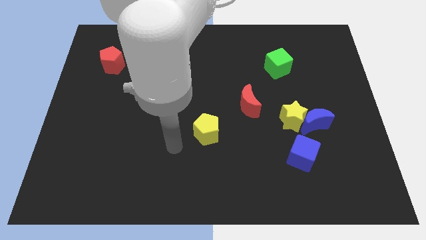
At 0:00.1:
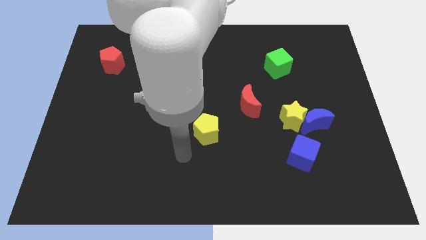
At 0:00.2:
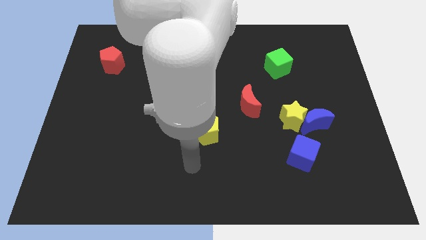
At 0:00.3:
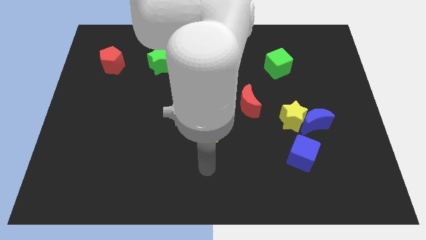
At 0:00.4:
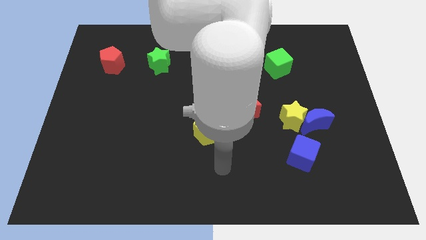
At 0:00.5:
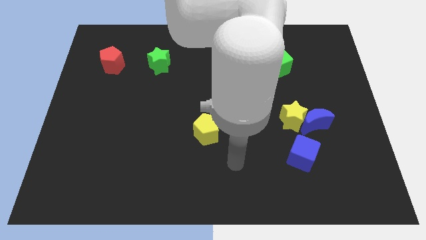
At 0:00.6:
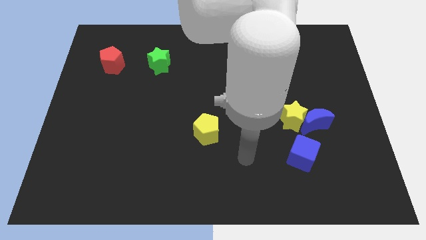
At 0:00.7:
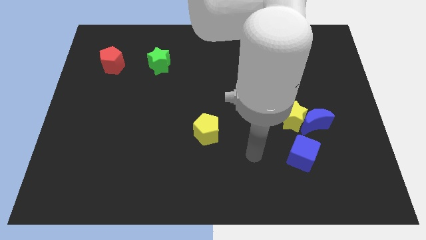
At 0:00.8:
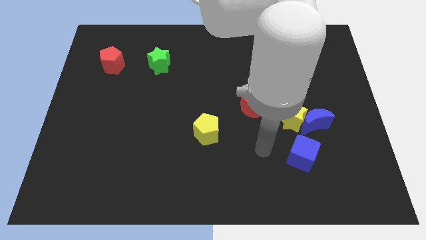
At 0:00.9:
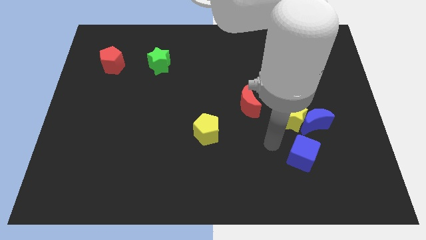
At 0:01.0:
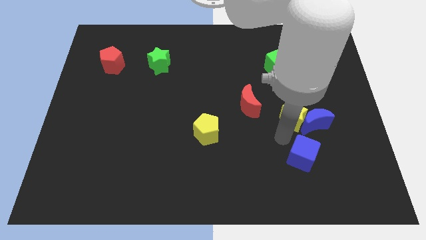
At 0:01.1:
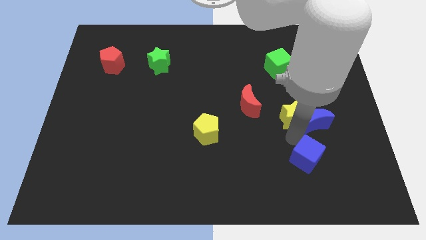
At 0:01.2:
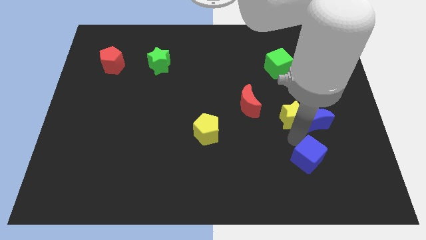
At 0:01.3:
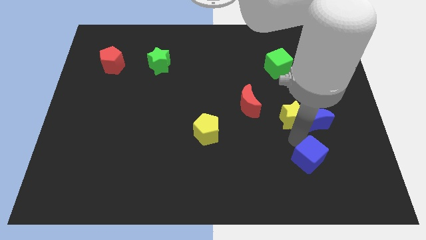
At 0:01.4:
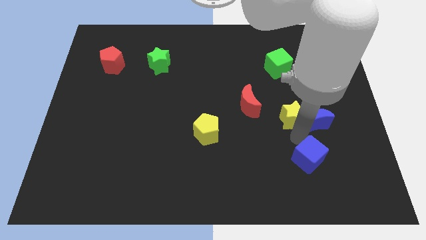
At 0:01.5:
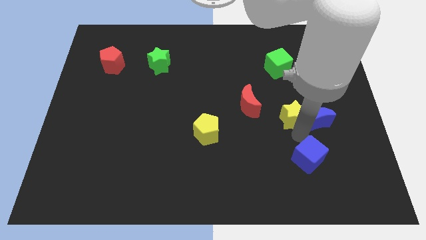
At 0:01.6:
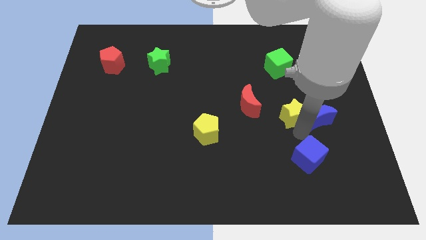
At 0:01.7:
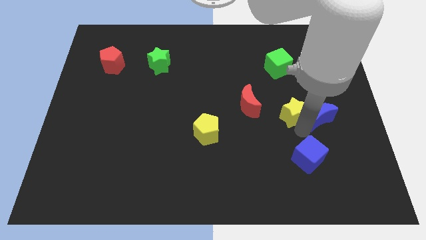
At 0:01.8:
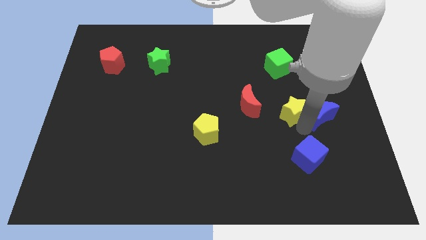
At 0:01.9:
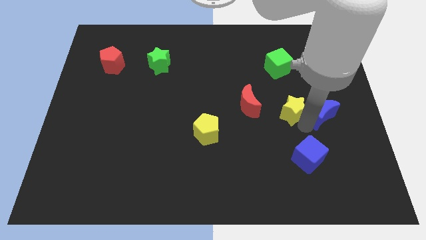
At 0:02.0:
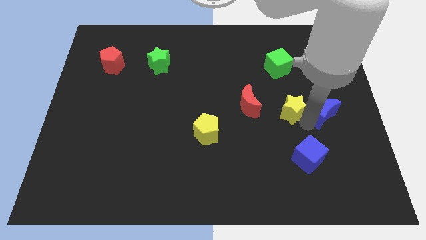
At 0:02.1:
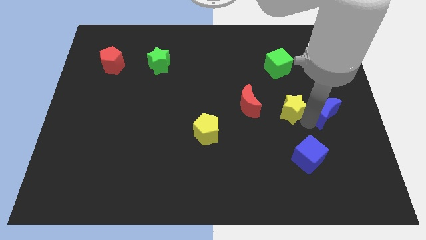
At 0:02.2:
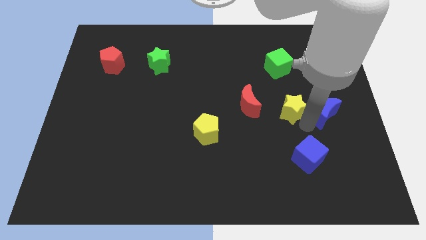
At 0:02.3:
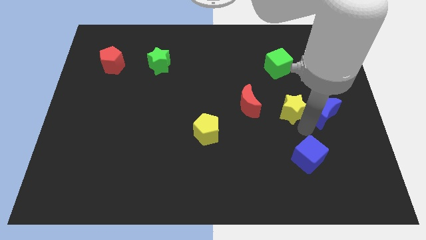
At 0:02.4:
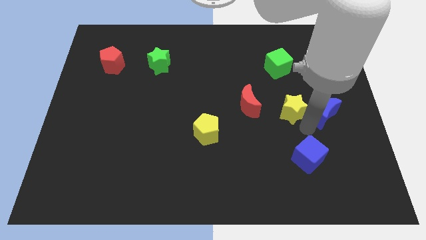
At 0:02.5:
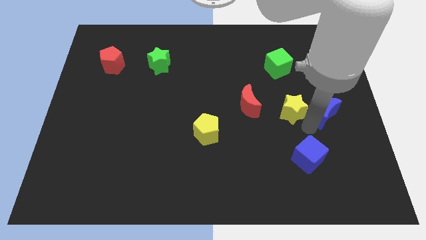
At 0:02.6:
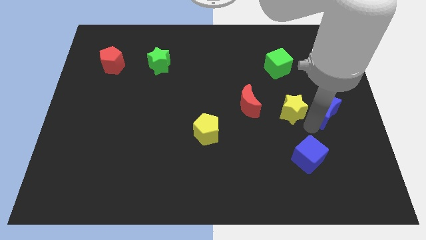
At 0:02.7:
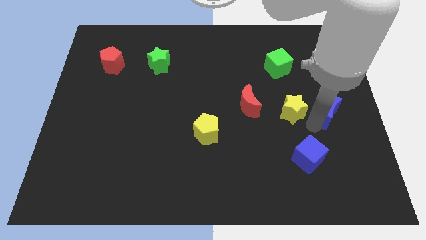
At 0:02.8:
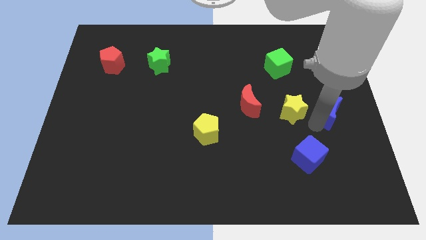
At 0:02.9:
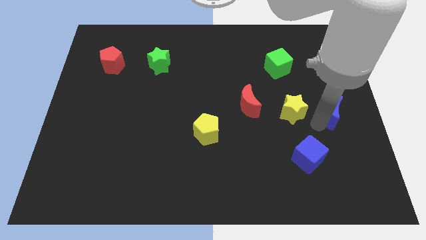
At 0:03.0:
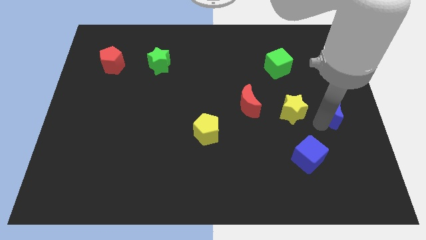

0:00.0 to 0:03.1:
pull the blue moon apart from the yellow star and blue cube

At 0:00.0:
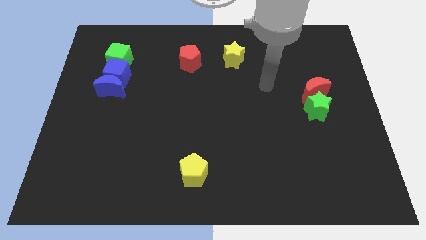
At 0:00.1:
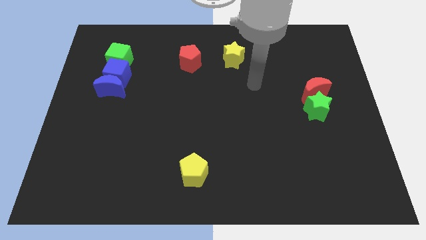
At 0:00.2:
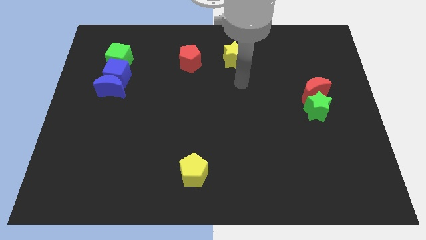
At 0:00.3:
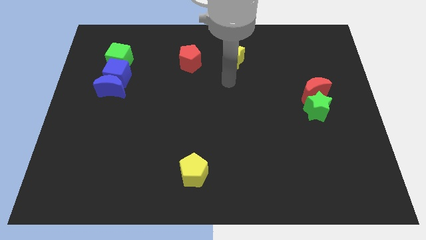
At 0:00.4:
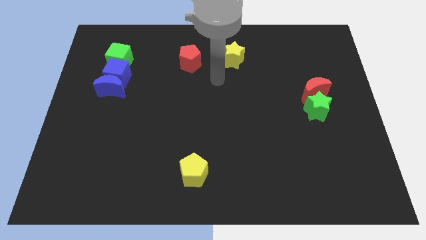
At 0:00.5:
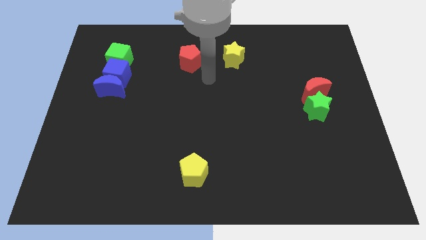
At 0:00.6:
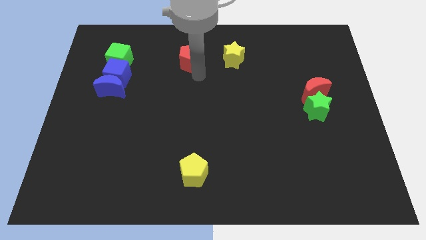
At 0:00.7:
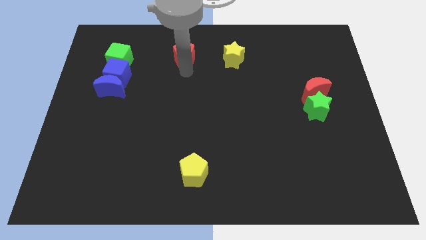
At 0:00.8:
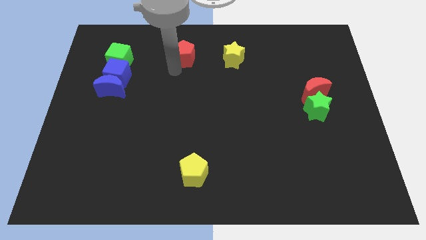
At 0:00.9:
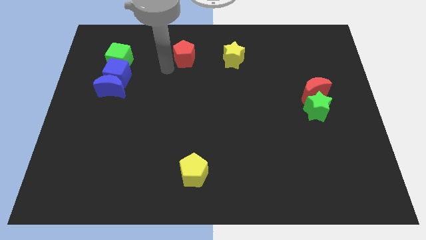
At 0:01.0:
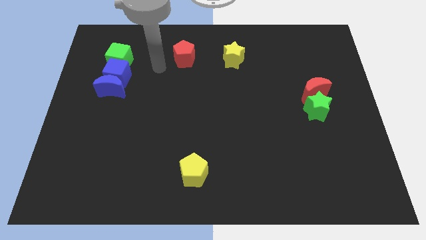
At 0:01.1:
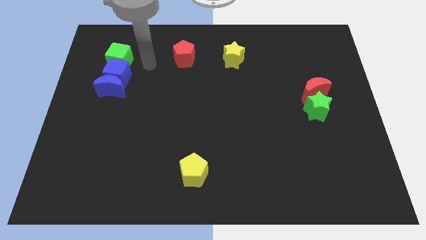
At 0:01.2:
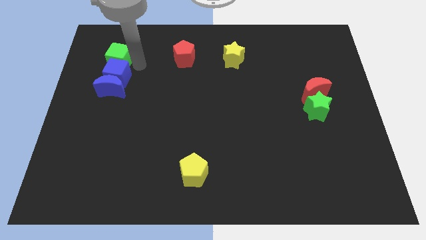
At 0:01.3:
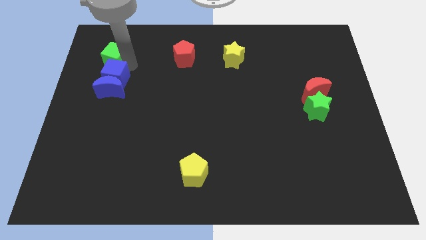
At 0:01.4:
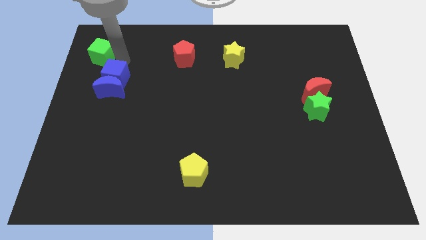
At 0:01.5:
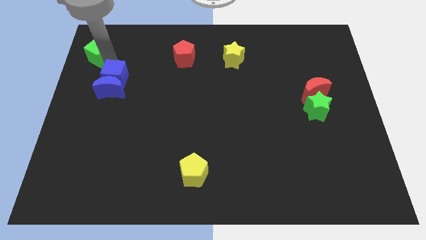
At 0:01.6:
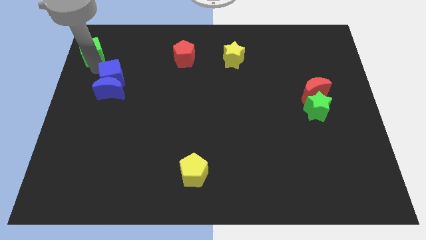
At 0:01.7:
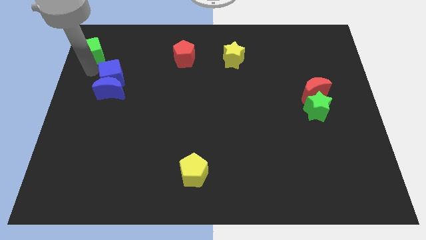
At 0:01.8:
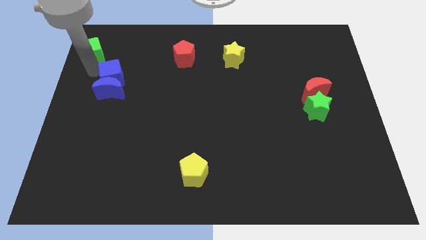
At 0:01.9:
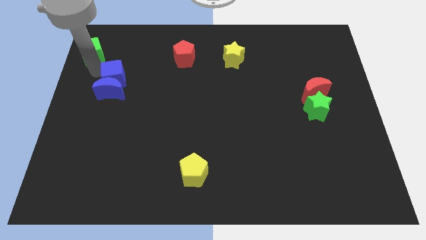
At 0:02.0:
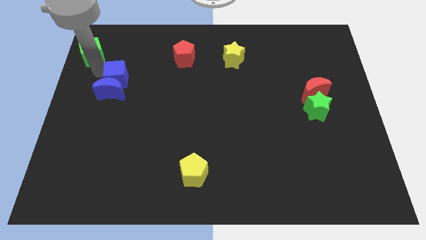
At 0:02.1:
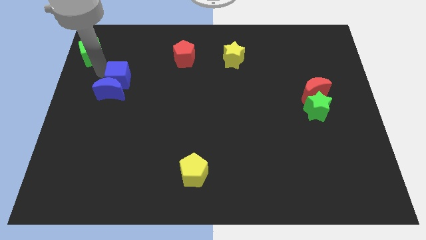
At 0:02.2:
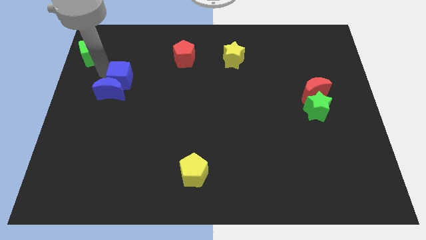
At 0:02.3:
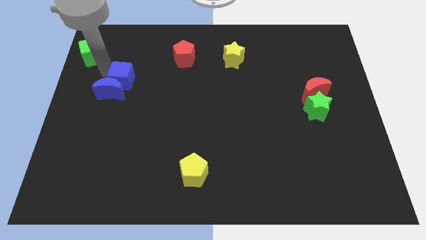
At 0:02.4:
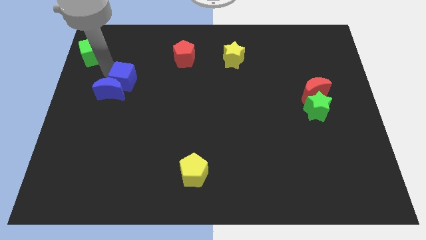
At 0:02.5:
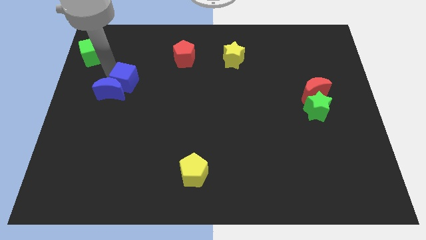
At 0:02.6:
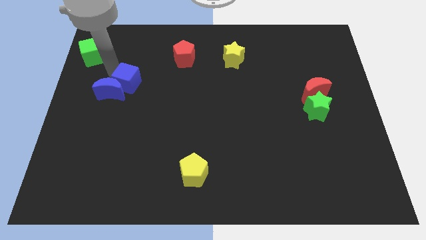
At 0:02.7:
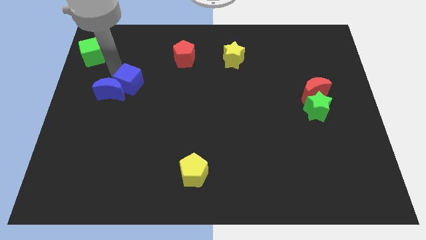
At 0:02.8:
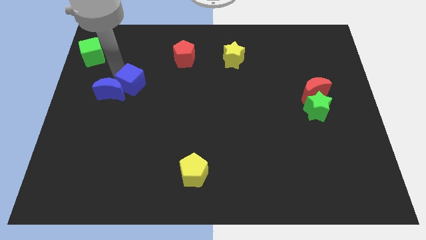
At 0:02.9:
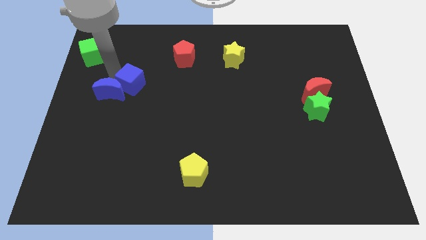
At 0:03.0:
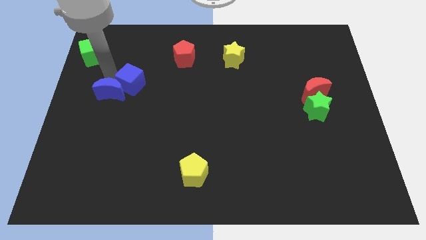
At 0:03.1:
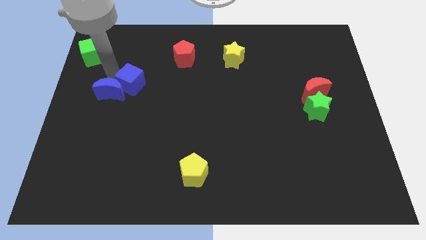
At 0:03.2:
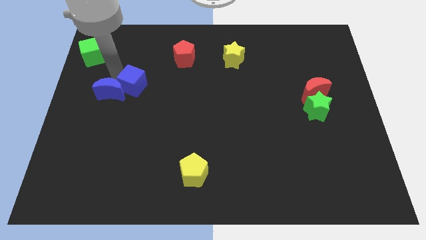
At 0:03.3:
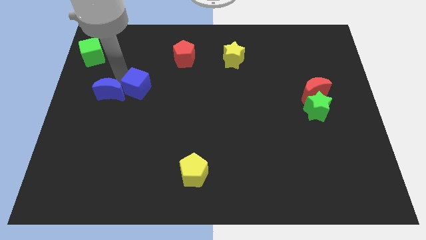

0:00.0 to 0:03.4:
move the blue cube away from the blue moon and green cube

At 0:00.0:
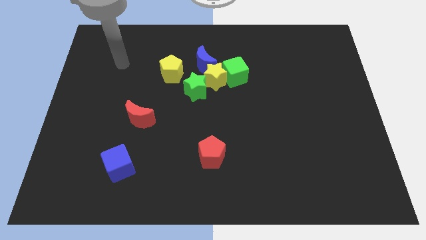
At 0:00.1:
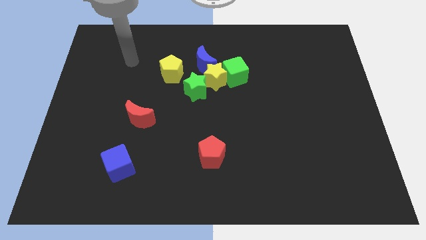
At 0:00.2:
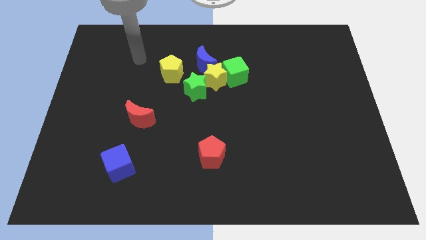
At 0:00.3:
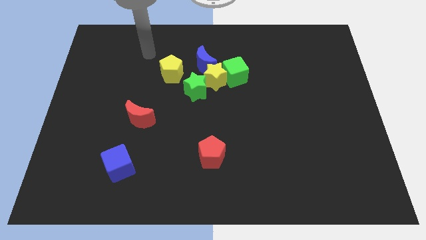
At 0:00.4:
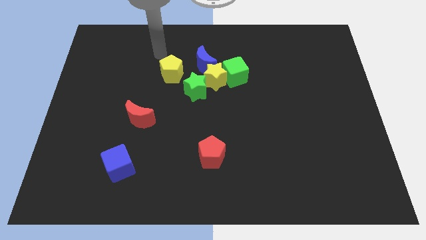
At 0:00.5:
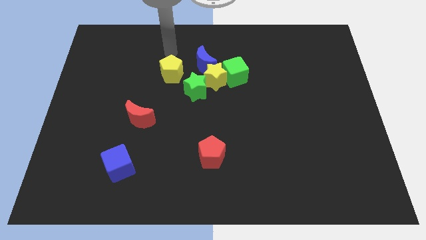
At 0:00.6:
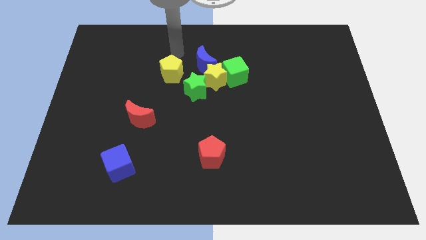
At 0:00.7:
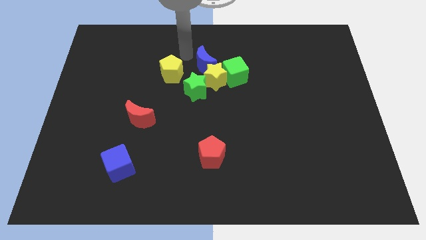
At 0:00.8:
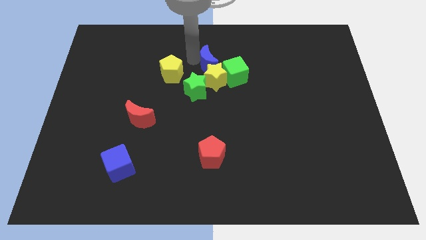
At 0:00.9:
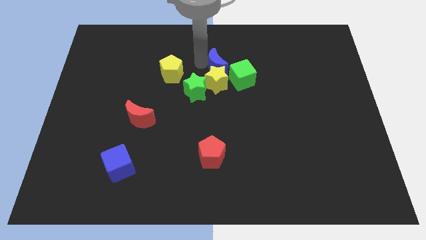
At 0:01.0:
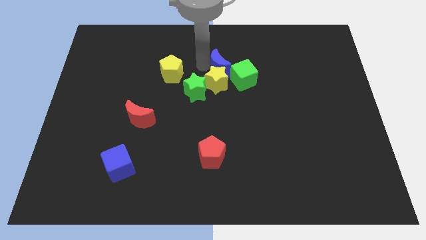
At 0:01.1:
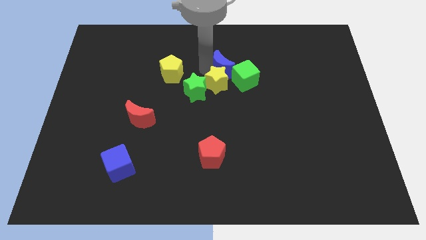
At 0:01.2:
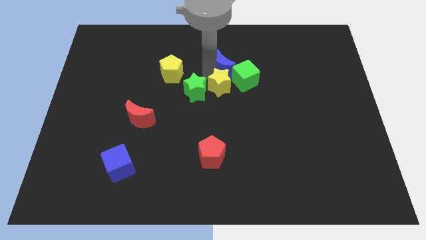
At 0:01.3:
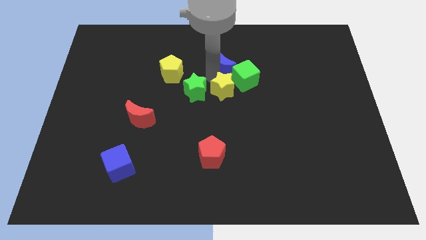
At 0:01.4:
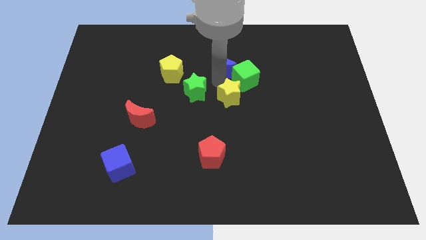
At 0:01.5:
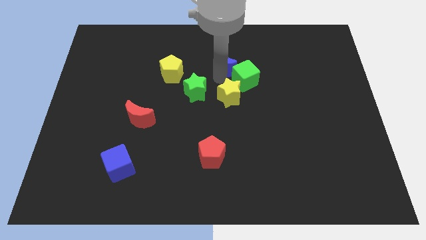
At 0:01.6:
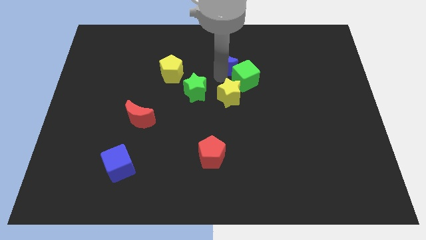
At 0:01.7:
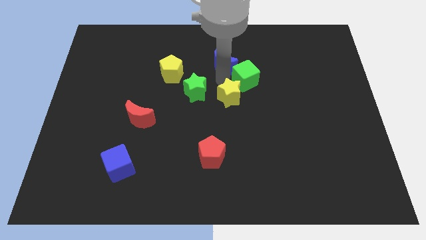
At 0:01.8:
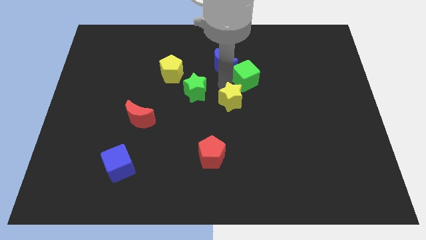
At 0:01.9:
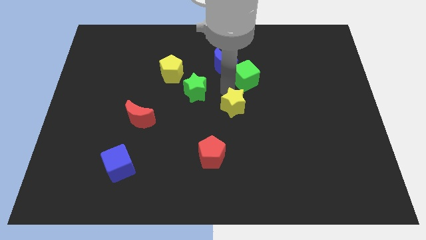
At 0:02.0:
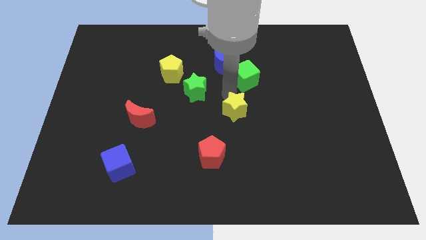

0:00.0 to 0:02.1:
pull the yellow star apart from the group of blocks

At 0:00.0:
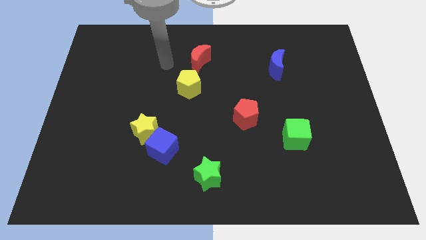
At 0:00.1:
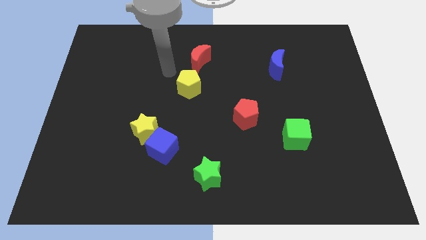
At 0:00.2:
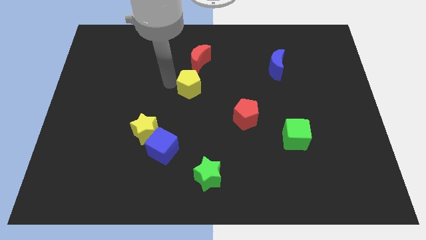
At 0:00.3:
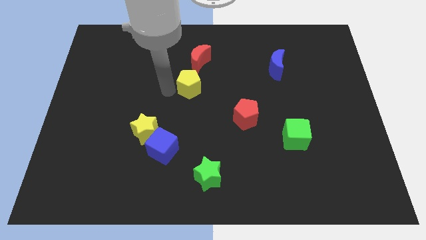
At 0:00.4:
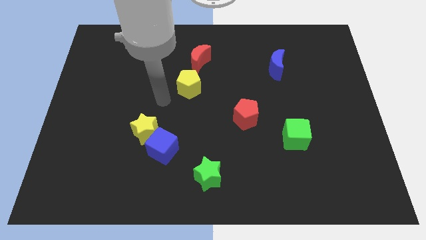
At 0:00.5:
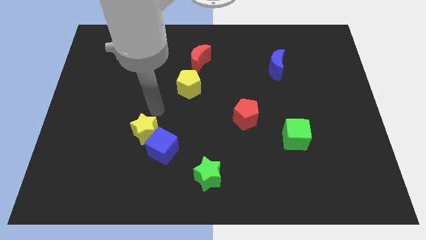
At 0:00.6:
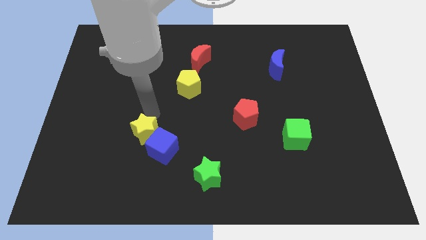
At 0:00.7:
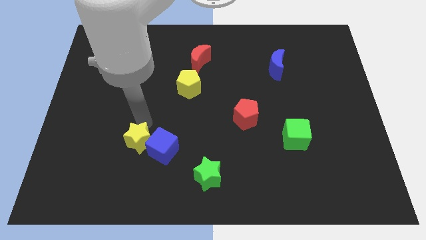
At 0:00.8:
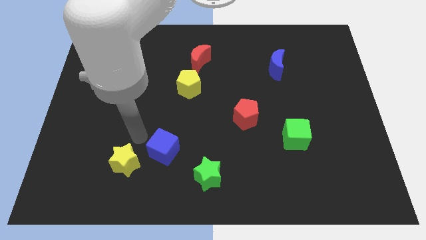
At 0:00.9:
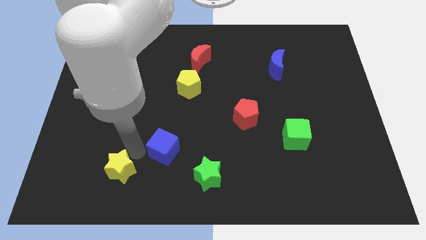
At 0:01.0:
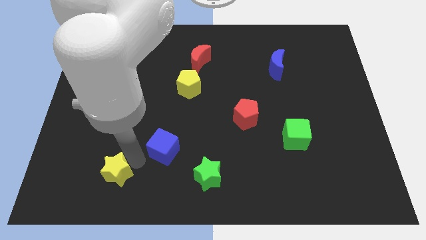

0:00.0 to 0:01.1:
pull the blue cube apart from the yellow star
